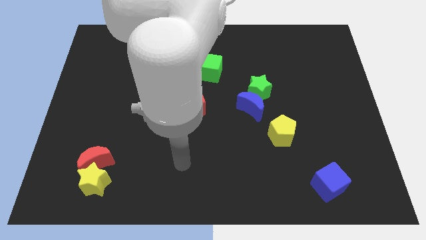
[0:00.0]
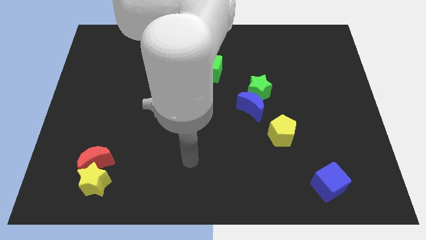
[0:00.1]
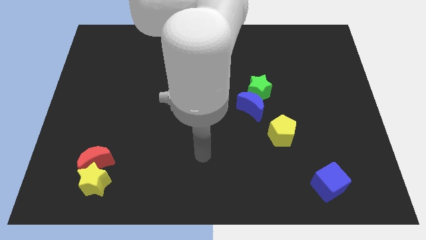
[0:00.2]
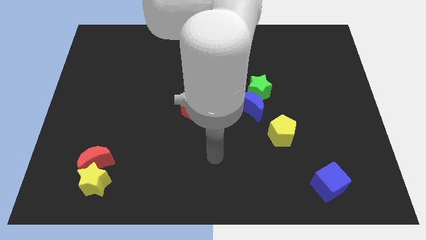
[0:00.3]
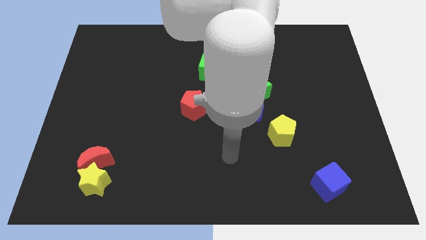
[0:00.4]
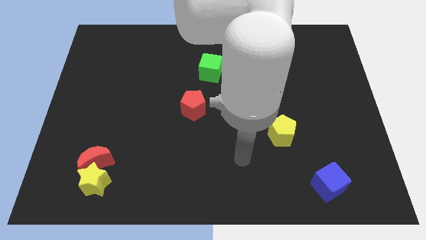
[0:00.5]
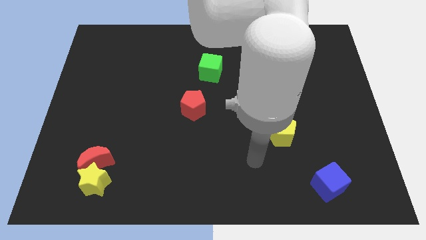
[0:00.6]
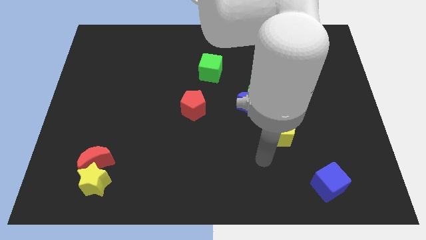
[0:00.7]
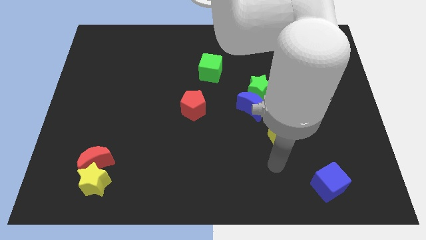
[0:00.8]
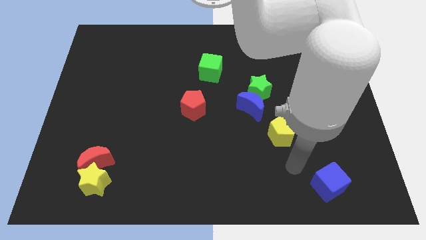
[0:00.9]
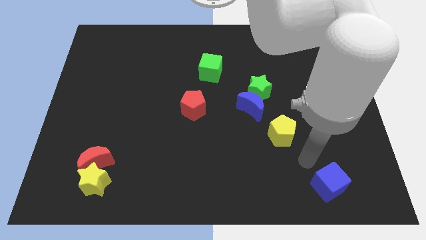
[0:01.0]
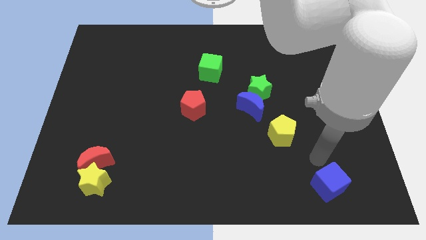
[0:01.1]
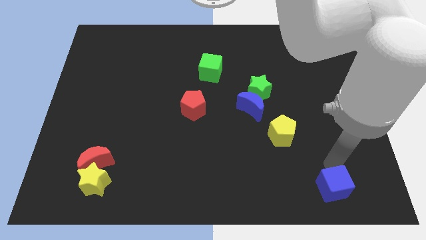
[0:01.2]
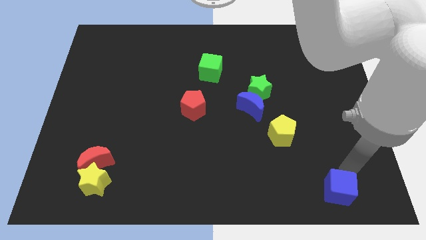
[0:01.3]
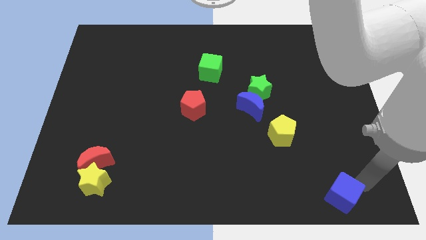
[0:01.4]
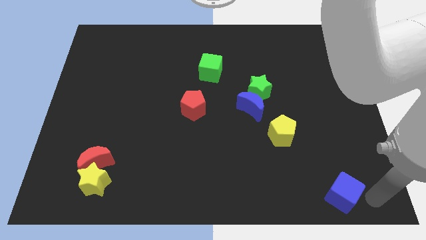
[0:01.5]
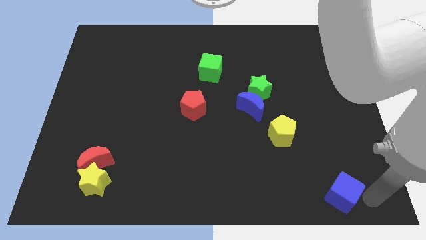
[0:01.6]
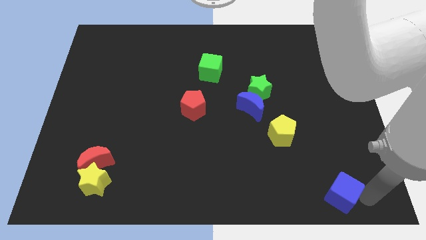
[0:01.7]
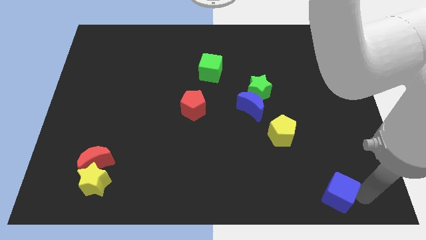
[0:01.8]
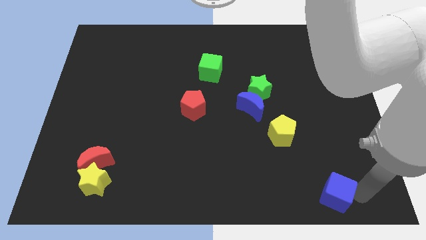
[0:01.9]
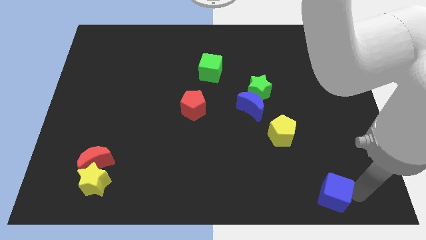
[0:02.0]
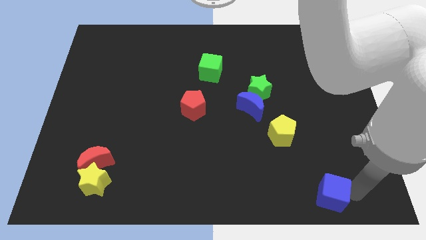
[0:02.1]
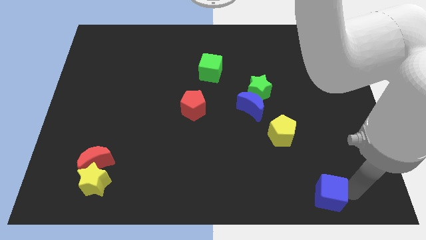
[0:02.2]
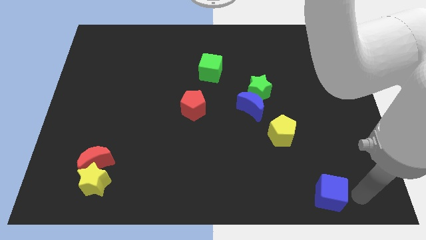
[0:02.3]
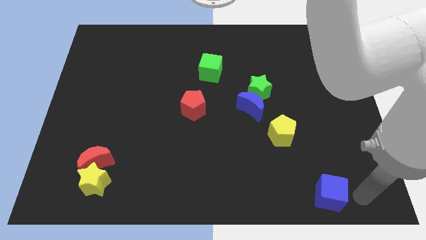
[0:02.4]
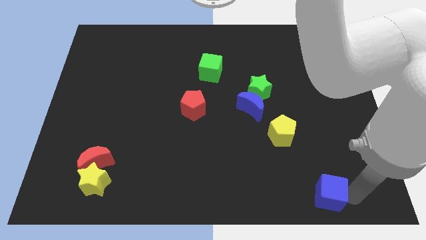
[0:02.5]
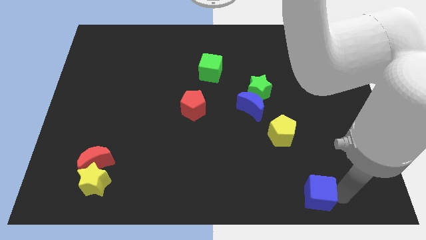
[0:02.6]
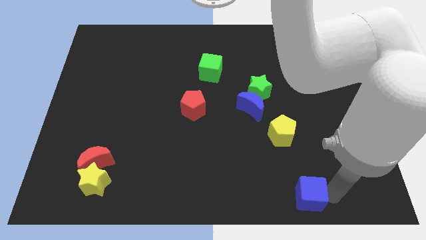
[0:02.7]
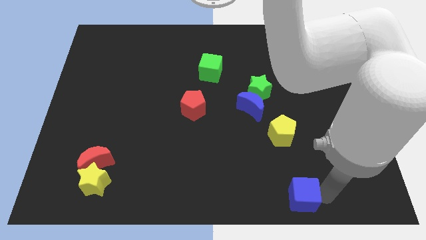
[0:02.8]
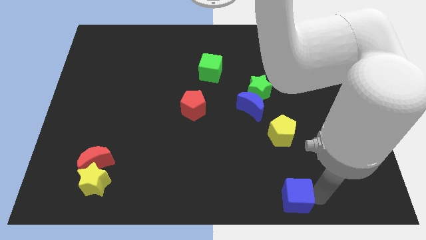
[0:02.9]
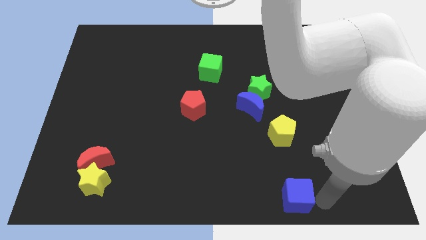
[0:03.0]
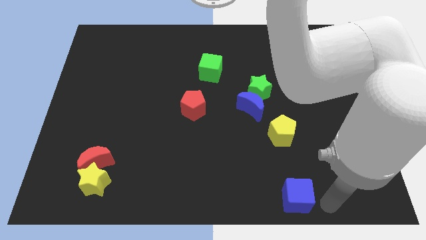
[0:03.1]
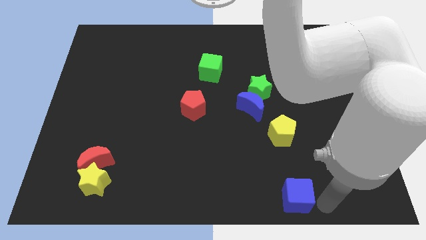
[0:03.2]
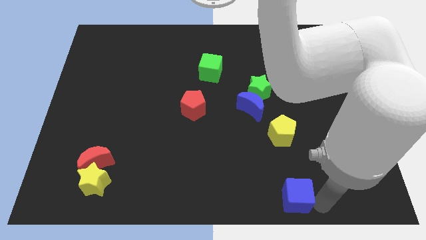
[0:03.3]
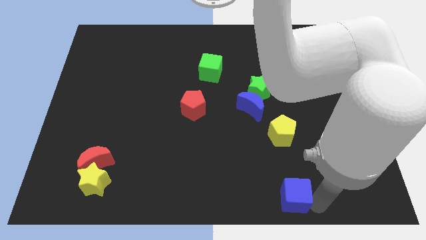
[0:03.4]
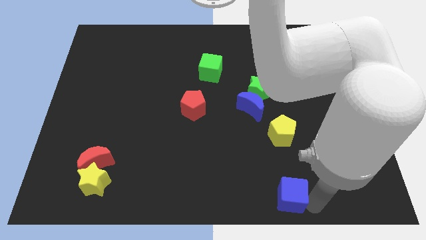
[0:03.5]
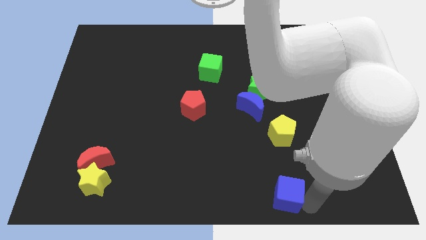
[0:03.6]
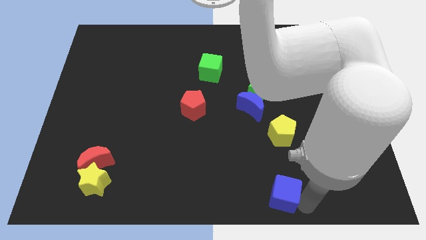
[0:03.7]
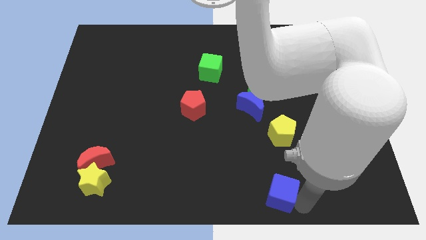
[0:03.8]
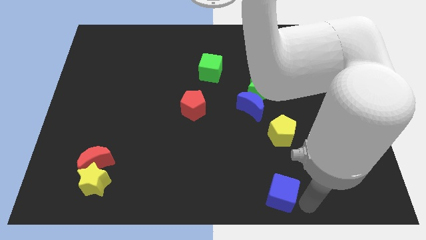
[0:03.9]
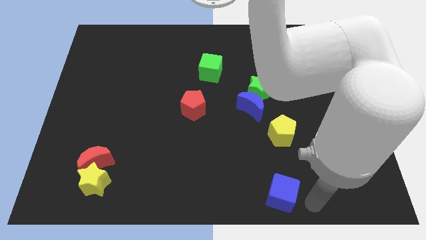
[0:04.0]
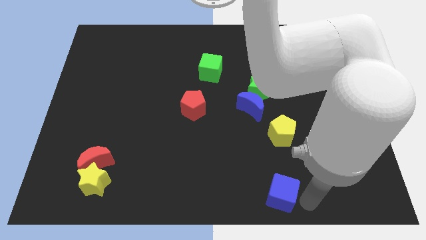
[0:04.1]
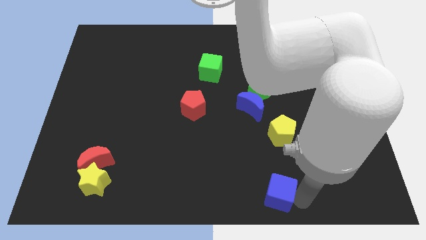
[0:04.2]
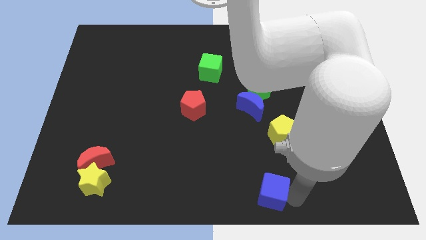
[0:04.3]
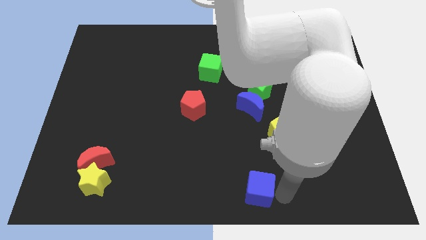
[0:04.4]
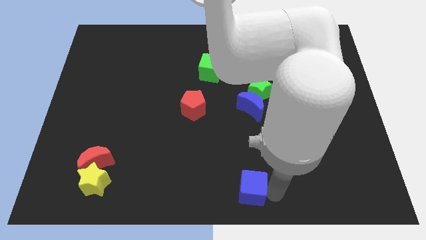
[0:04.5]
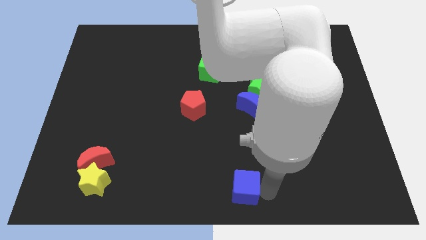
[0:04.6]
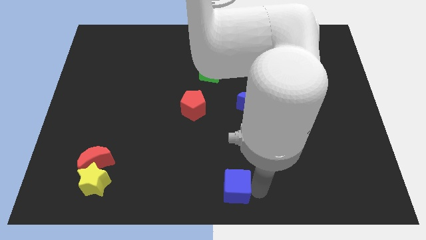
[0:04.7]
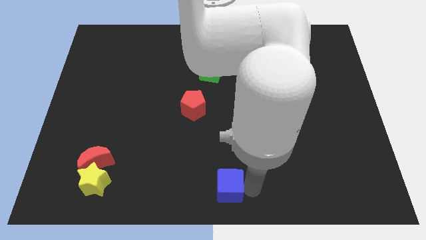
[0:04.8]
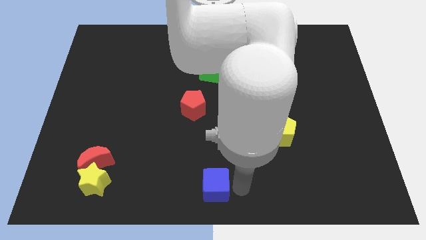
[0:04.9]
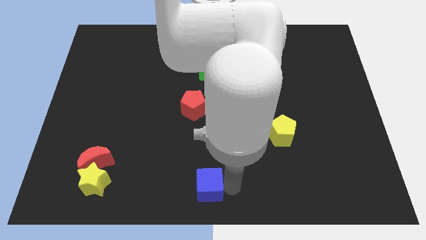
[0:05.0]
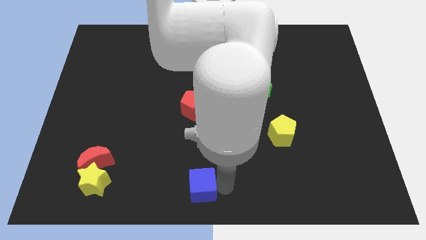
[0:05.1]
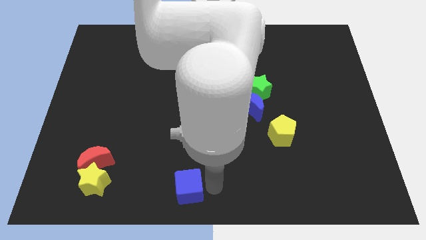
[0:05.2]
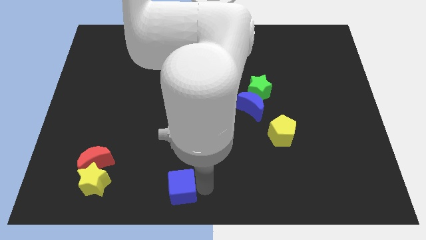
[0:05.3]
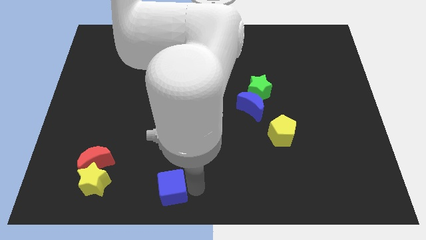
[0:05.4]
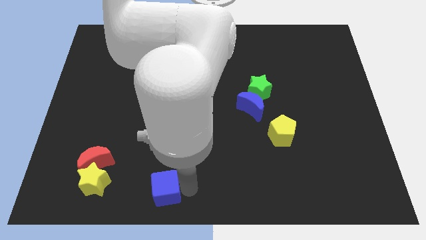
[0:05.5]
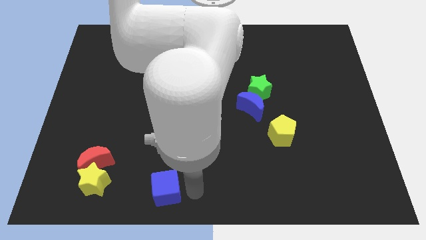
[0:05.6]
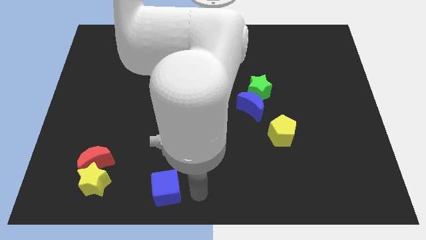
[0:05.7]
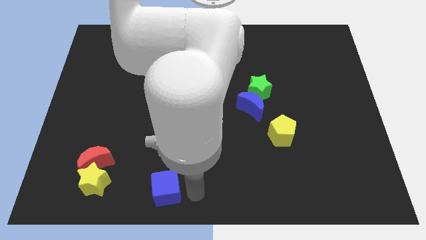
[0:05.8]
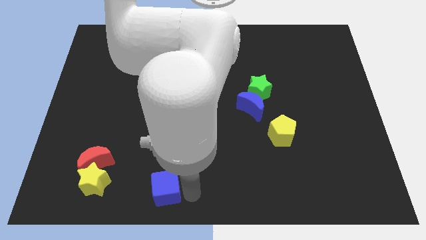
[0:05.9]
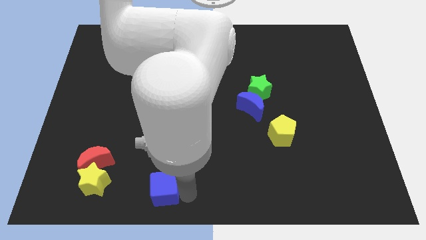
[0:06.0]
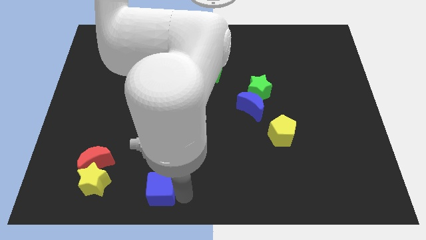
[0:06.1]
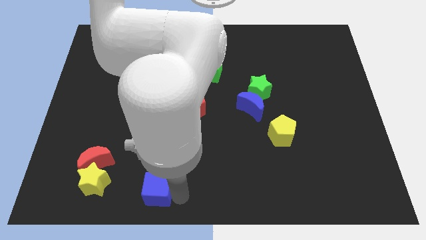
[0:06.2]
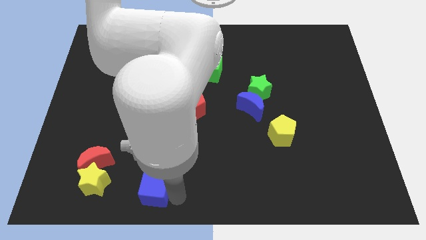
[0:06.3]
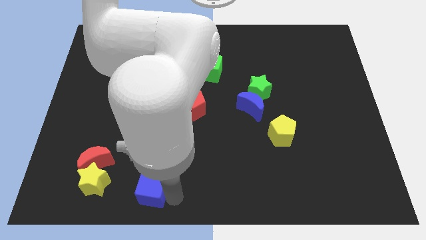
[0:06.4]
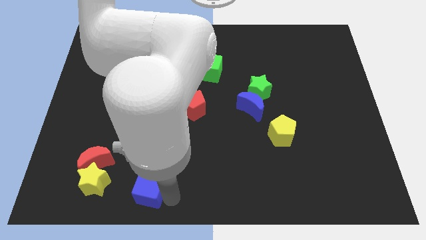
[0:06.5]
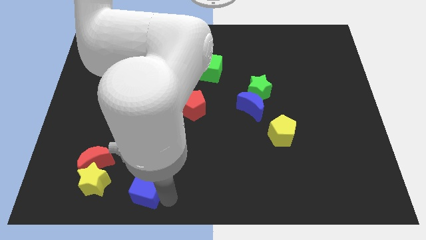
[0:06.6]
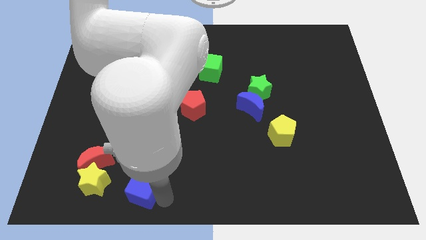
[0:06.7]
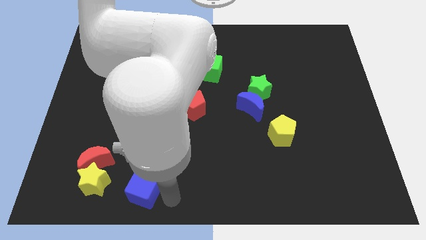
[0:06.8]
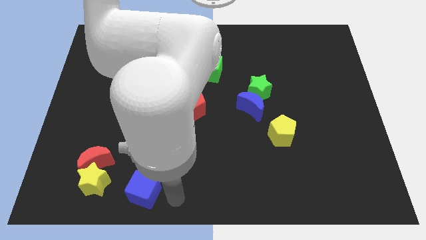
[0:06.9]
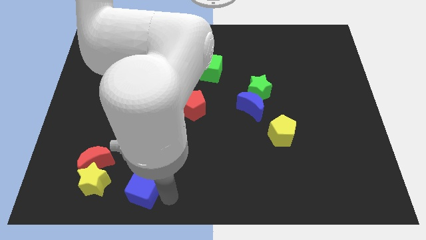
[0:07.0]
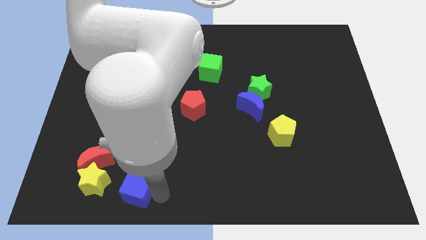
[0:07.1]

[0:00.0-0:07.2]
move the blue cube to the bottom right side of the red moon
